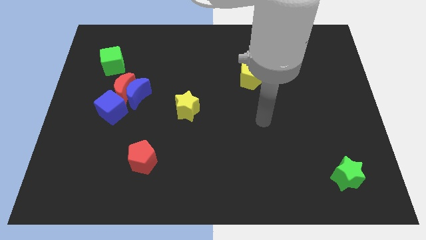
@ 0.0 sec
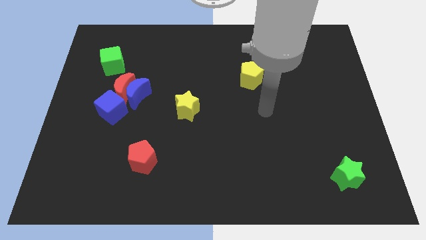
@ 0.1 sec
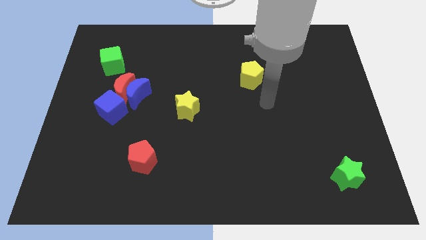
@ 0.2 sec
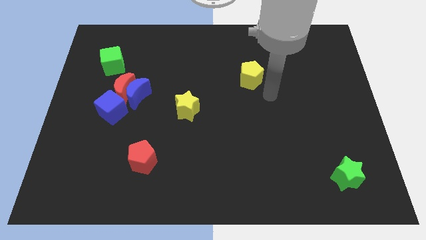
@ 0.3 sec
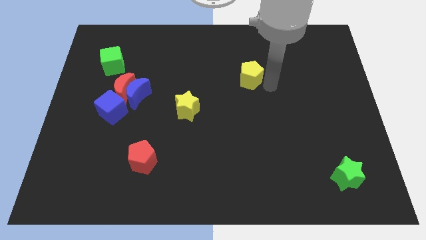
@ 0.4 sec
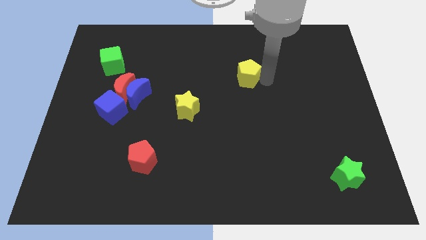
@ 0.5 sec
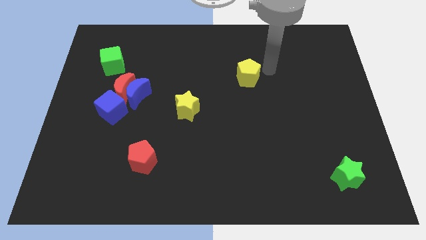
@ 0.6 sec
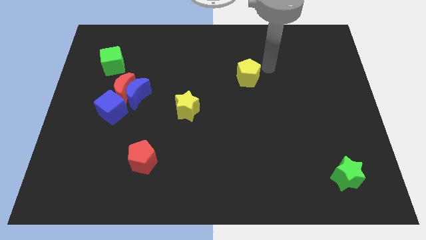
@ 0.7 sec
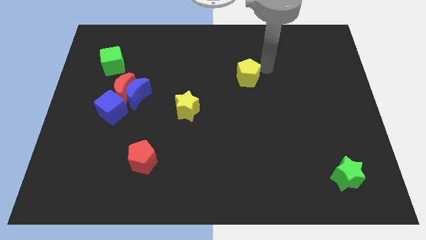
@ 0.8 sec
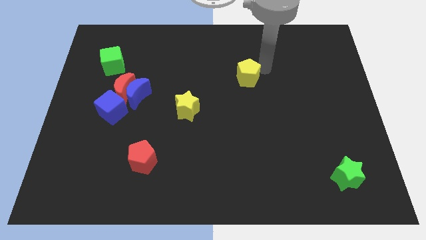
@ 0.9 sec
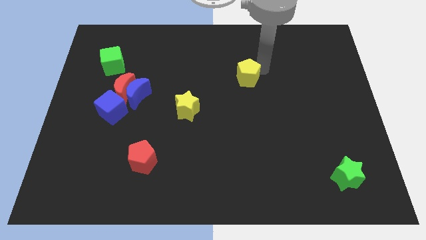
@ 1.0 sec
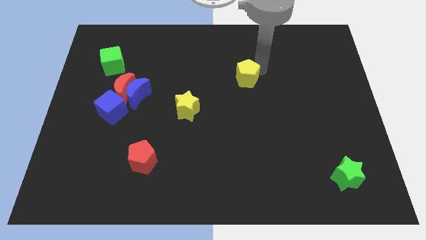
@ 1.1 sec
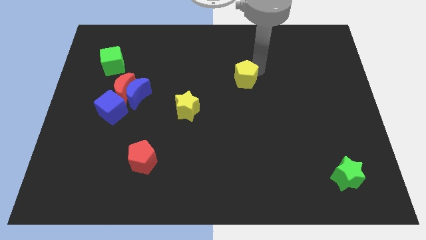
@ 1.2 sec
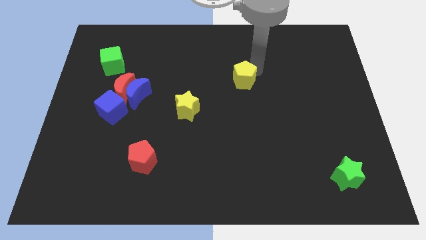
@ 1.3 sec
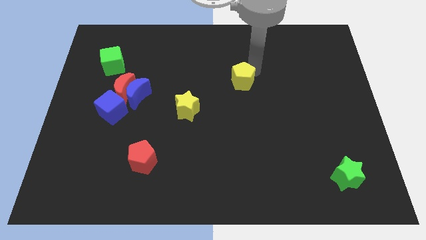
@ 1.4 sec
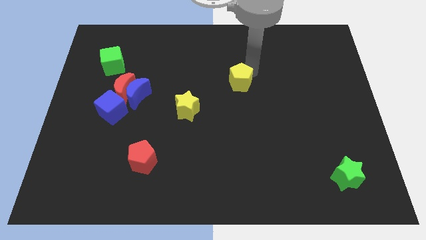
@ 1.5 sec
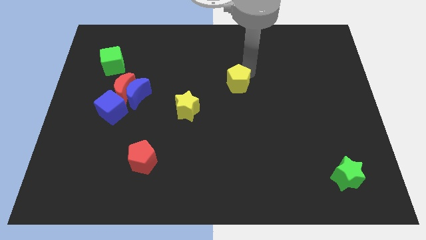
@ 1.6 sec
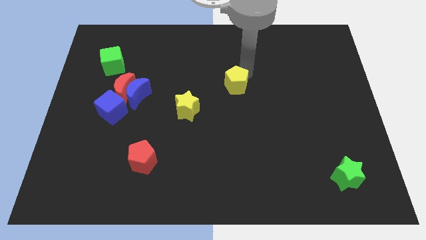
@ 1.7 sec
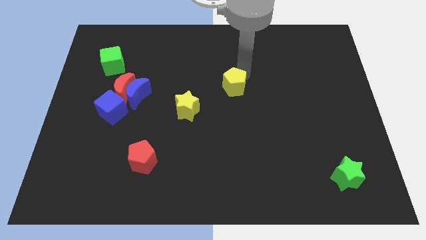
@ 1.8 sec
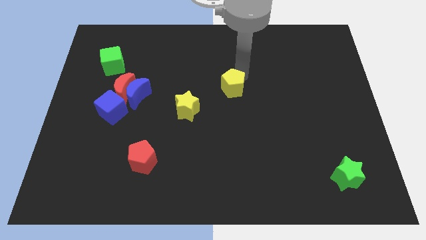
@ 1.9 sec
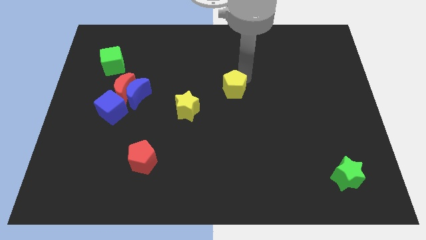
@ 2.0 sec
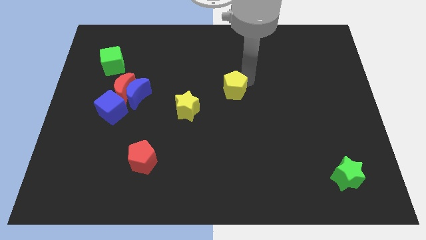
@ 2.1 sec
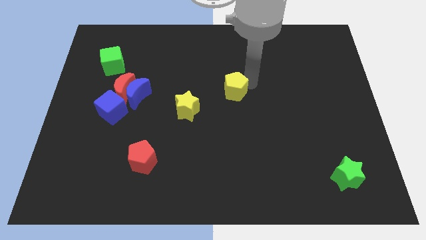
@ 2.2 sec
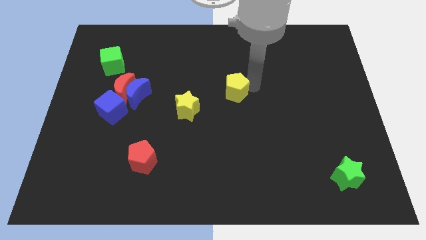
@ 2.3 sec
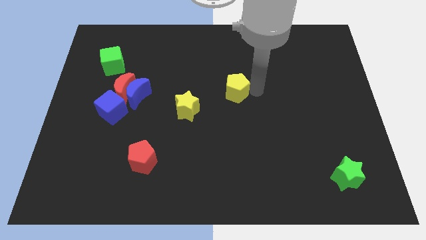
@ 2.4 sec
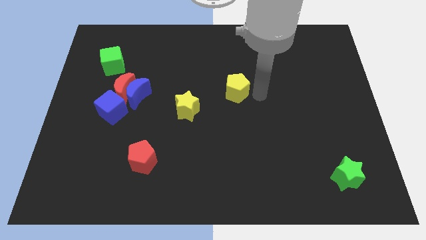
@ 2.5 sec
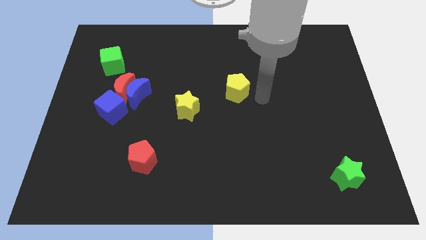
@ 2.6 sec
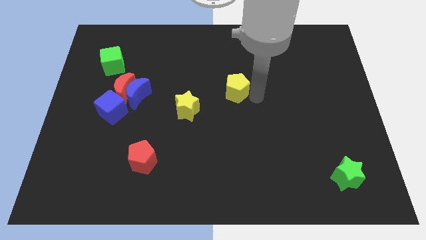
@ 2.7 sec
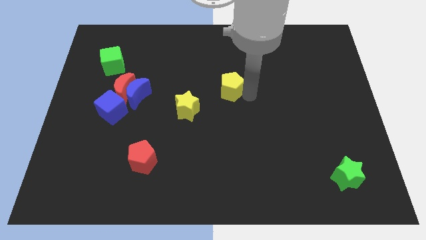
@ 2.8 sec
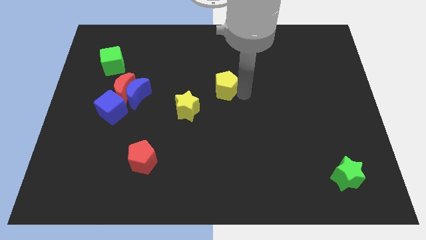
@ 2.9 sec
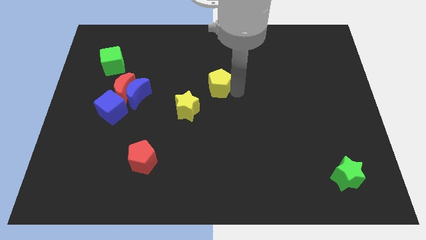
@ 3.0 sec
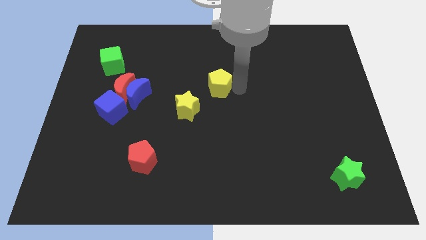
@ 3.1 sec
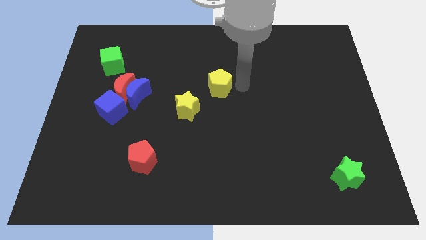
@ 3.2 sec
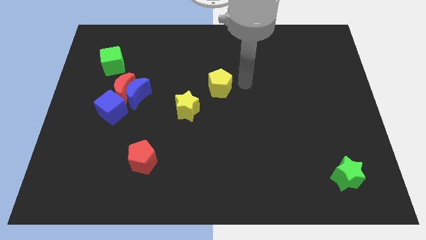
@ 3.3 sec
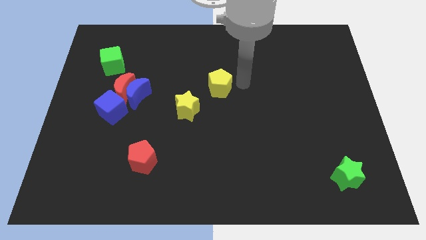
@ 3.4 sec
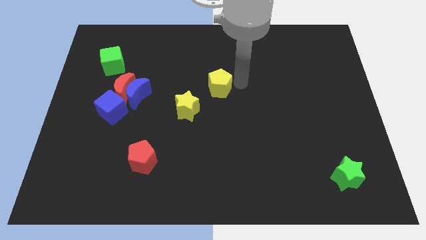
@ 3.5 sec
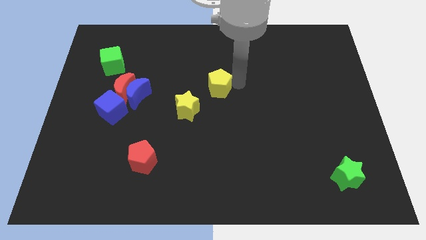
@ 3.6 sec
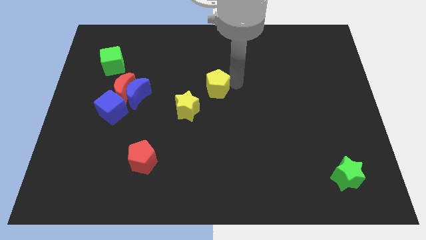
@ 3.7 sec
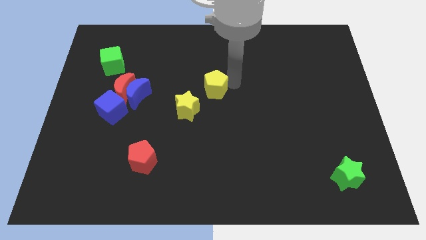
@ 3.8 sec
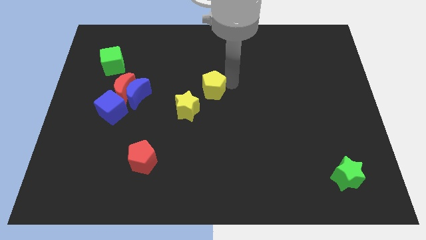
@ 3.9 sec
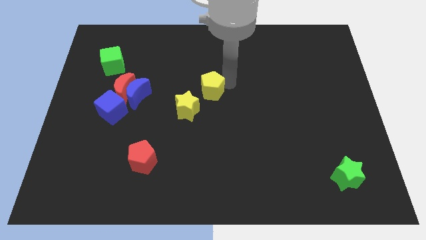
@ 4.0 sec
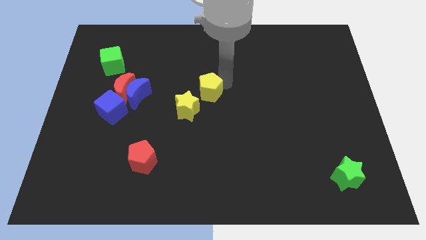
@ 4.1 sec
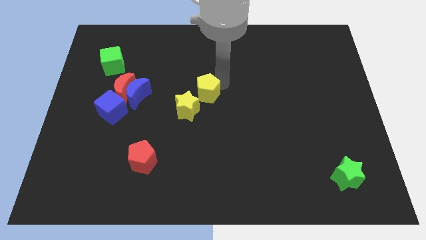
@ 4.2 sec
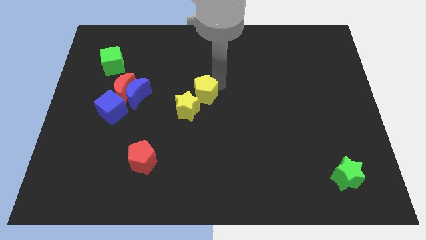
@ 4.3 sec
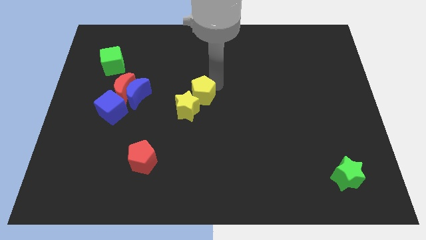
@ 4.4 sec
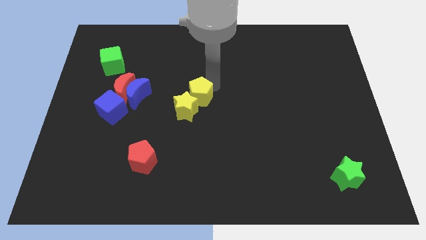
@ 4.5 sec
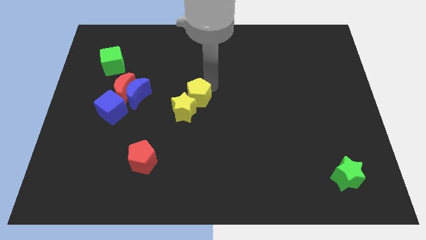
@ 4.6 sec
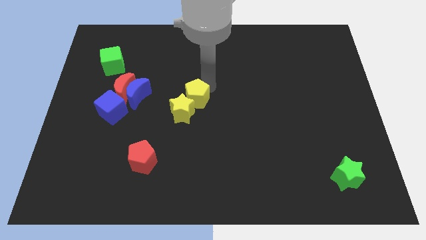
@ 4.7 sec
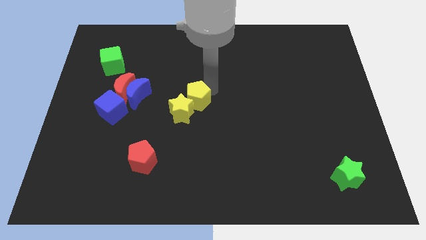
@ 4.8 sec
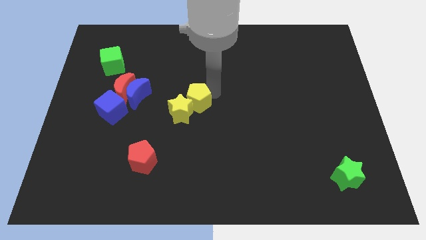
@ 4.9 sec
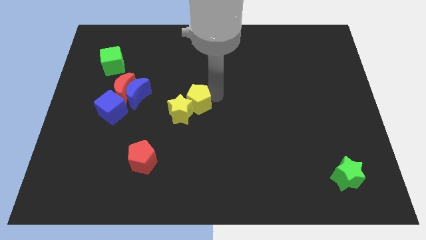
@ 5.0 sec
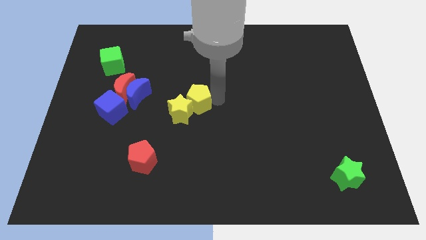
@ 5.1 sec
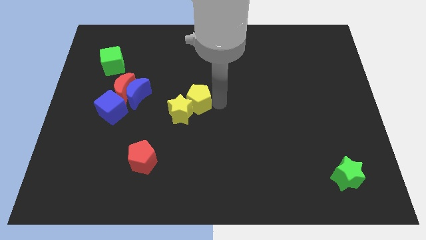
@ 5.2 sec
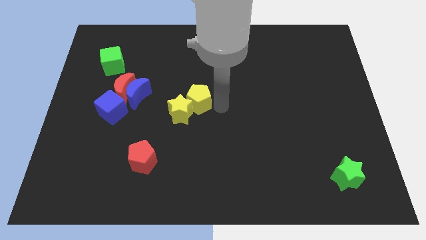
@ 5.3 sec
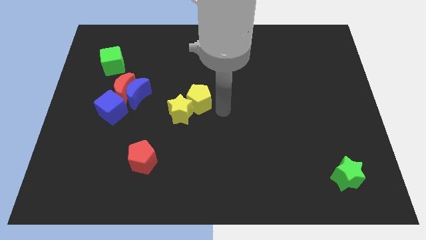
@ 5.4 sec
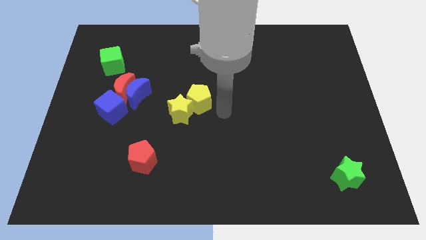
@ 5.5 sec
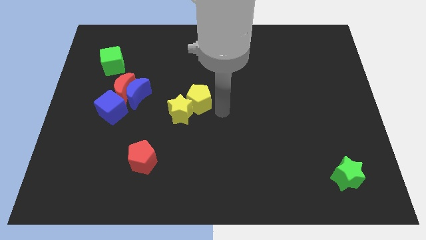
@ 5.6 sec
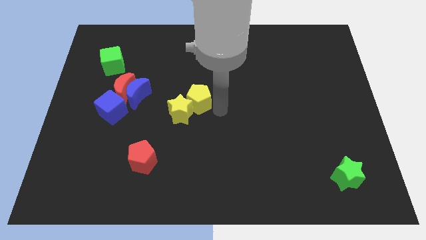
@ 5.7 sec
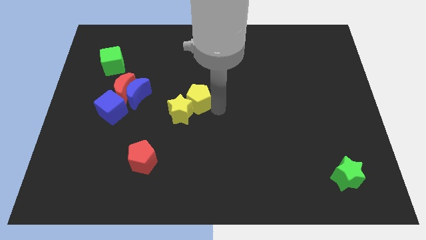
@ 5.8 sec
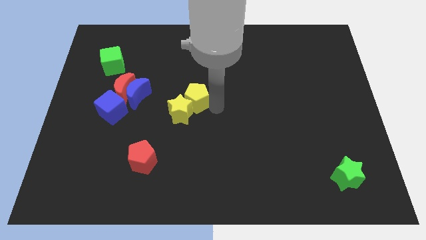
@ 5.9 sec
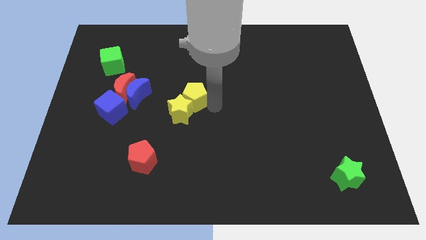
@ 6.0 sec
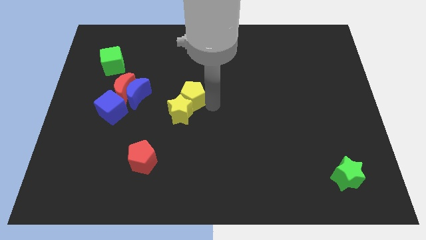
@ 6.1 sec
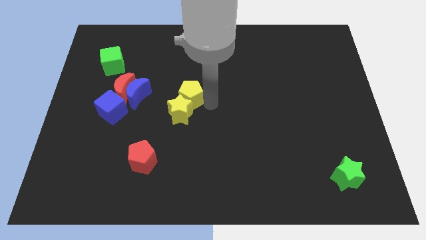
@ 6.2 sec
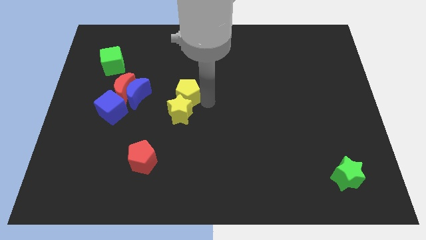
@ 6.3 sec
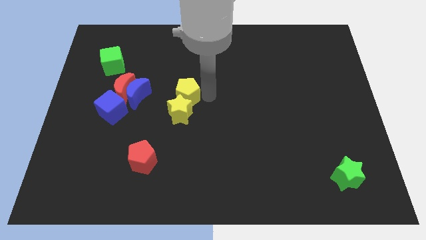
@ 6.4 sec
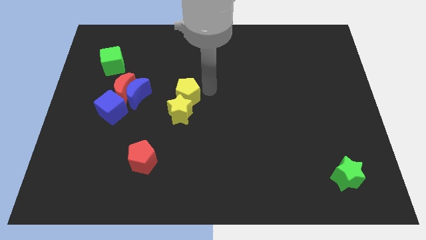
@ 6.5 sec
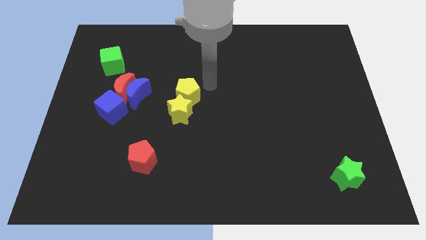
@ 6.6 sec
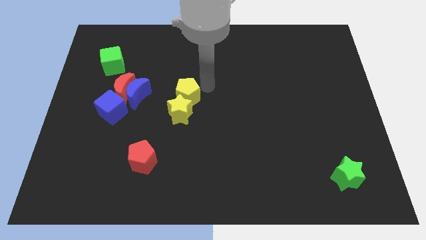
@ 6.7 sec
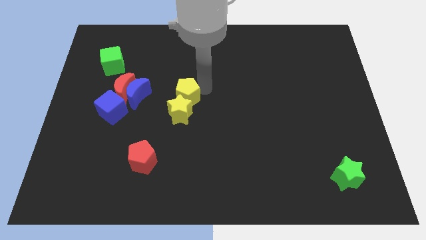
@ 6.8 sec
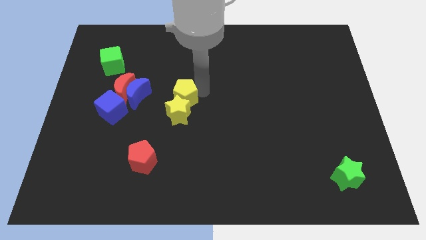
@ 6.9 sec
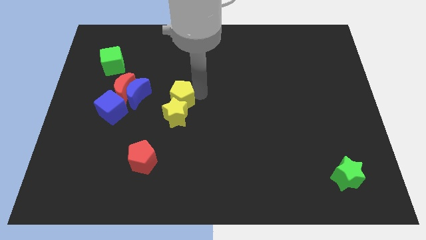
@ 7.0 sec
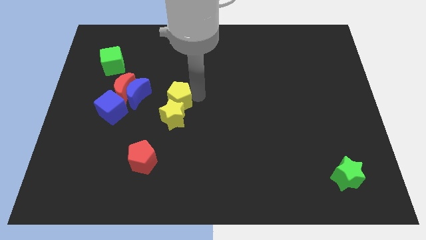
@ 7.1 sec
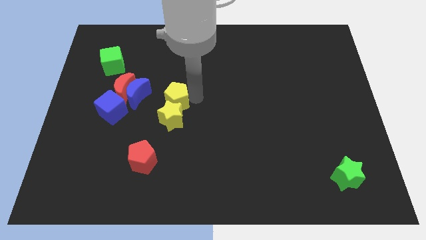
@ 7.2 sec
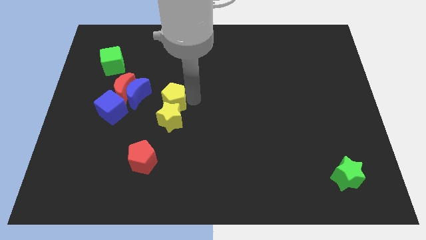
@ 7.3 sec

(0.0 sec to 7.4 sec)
put the yellow pentagon diagonally down and to the right of the blue moon
